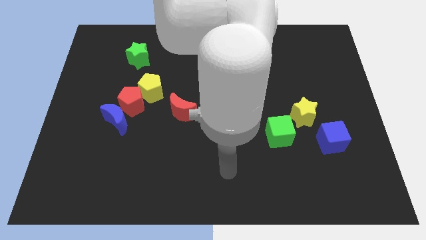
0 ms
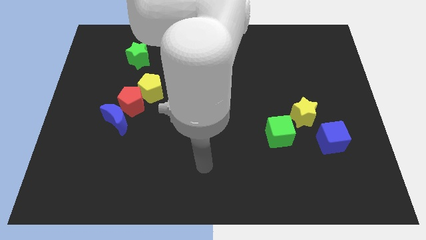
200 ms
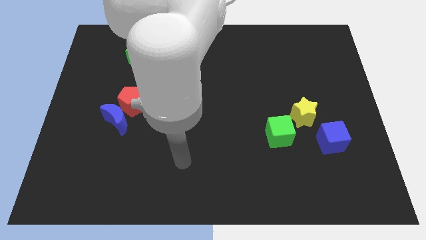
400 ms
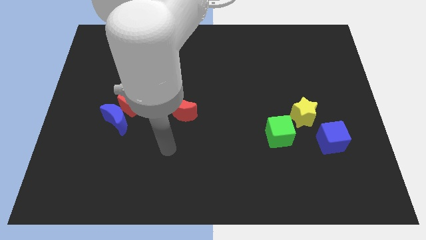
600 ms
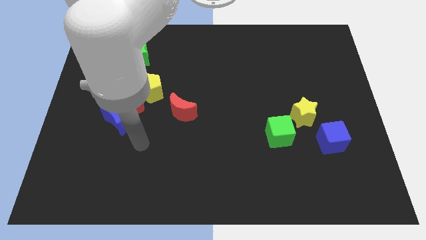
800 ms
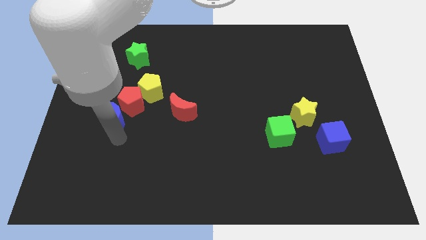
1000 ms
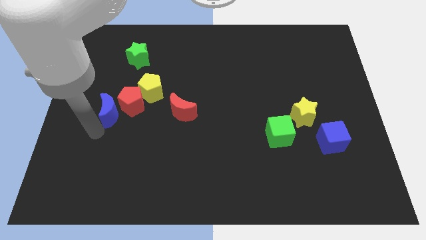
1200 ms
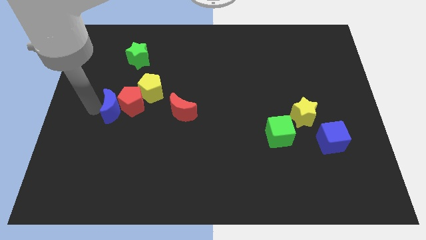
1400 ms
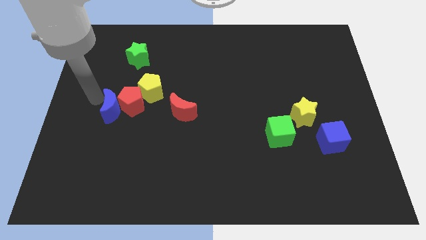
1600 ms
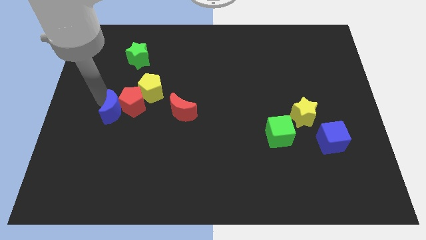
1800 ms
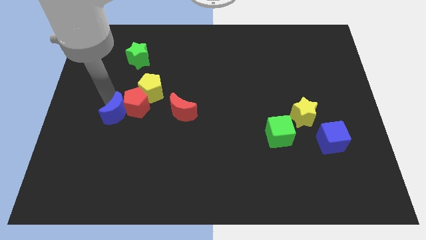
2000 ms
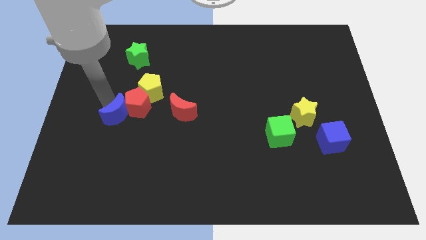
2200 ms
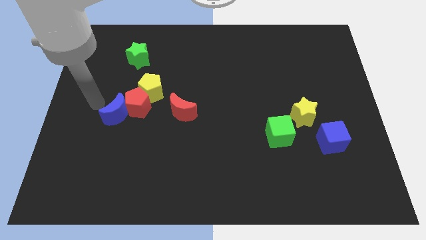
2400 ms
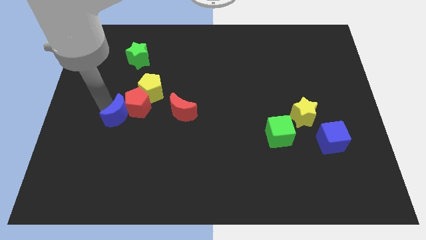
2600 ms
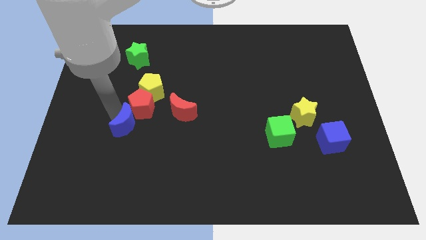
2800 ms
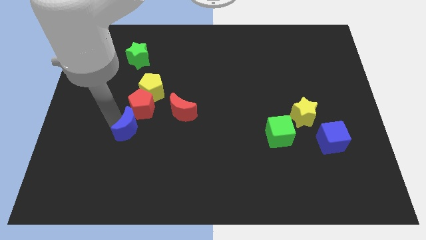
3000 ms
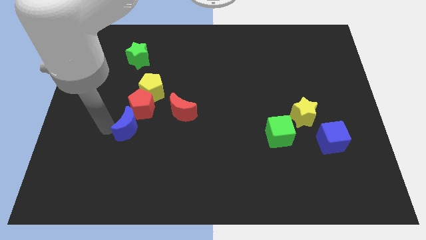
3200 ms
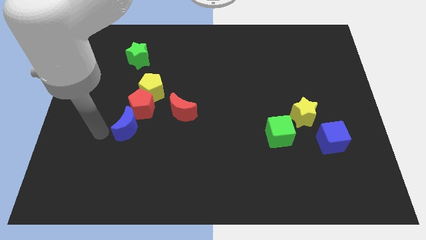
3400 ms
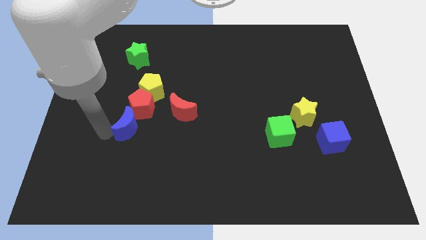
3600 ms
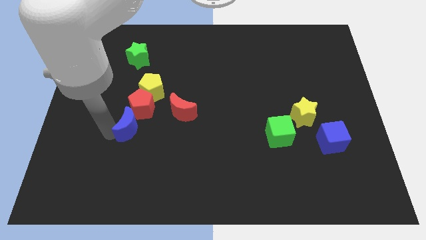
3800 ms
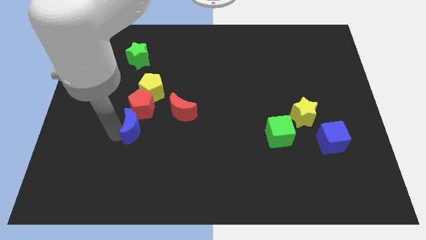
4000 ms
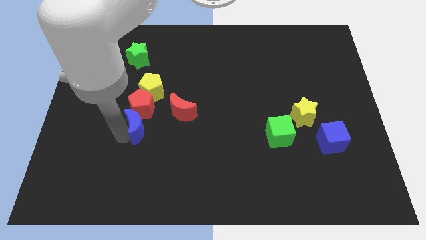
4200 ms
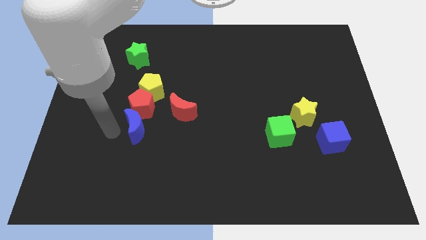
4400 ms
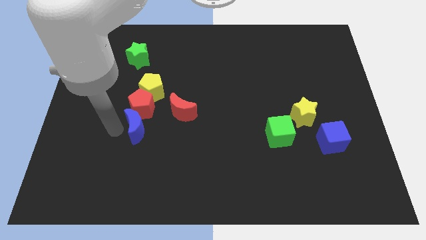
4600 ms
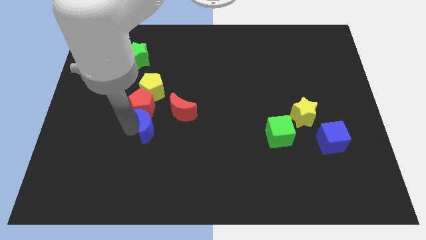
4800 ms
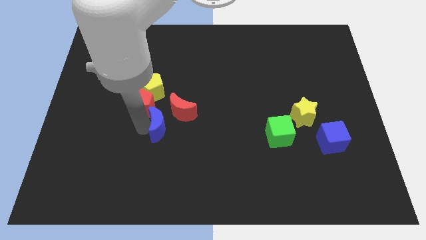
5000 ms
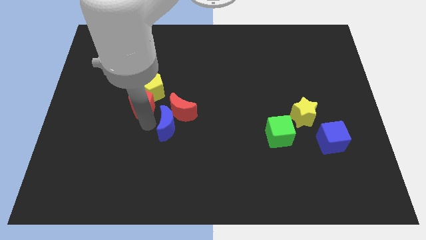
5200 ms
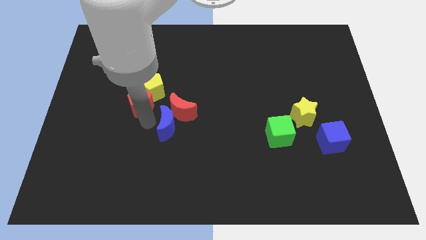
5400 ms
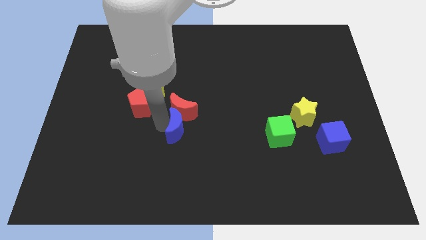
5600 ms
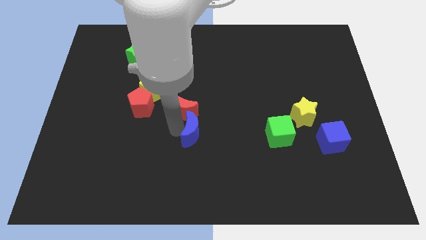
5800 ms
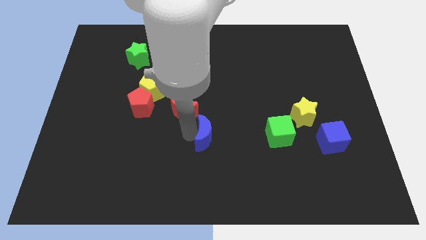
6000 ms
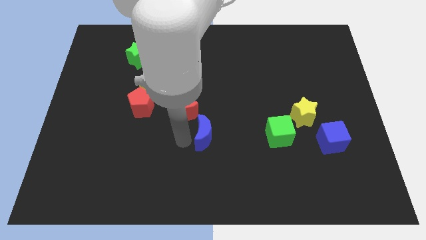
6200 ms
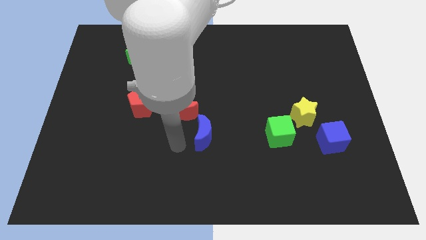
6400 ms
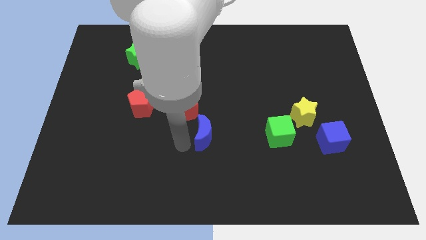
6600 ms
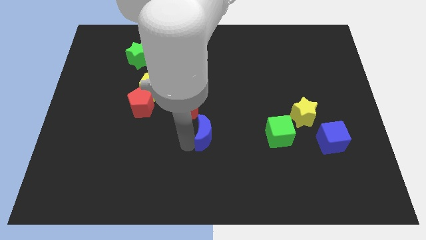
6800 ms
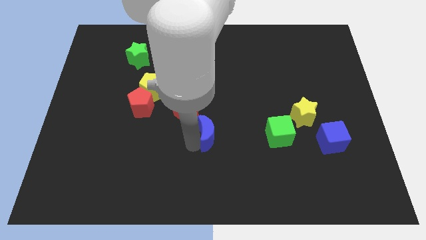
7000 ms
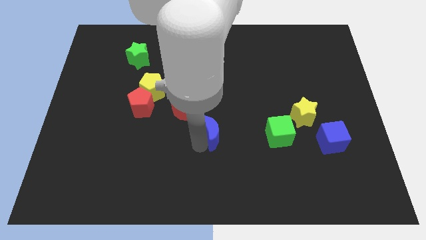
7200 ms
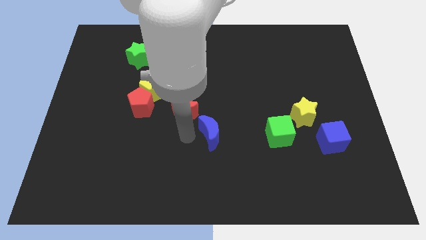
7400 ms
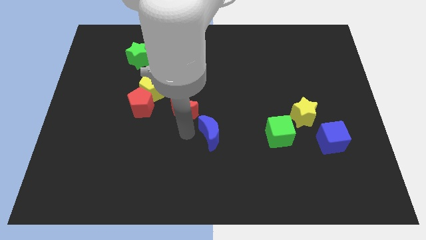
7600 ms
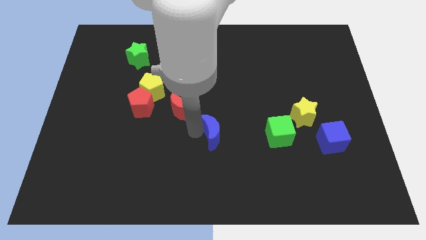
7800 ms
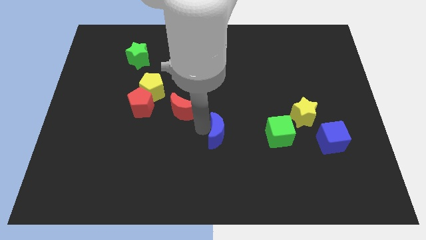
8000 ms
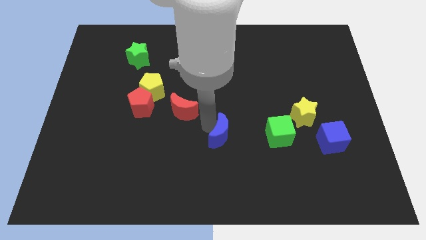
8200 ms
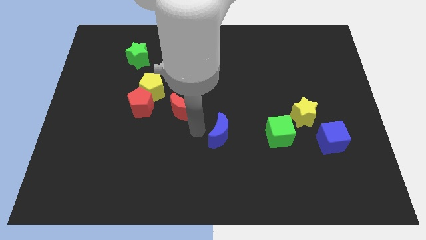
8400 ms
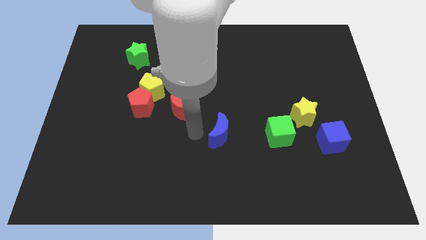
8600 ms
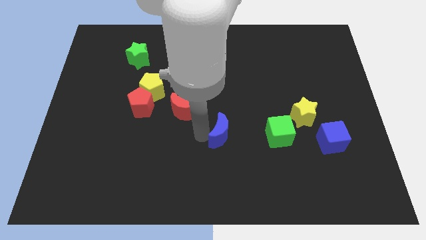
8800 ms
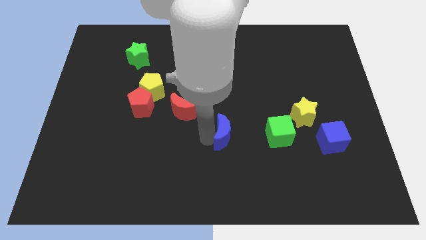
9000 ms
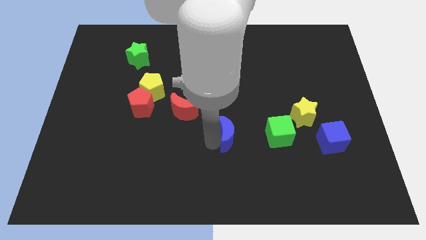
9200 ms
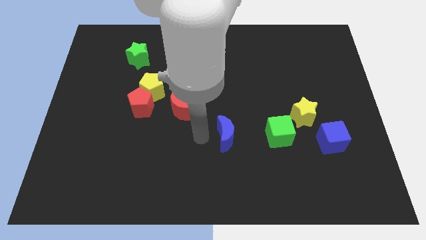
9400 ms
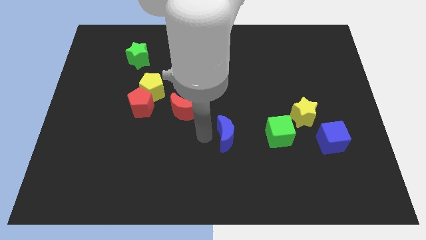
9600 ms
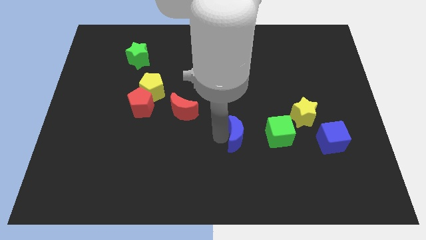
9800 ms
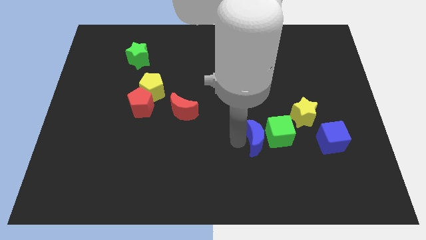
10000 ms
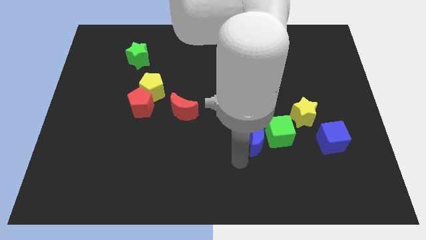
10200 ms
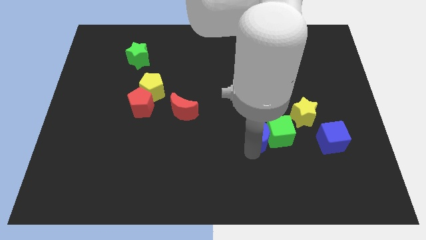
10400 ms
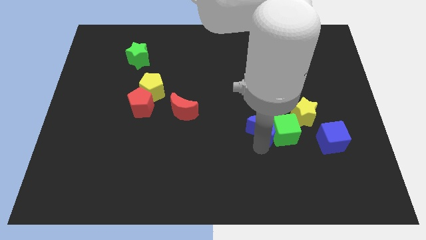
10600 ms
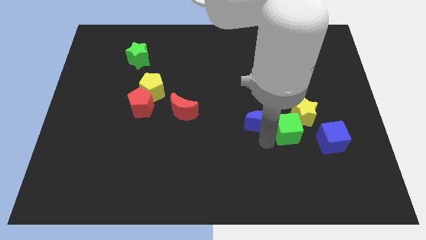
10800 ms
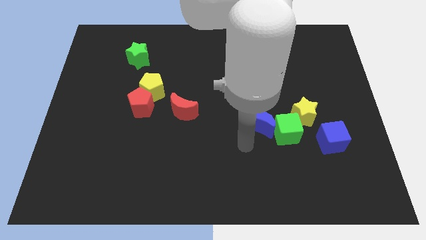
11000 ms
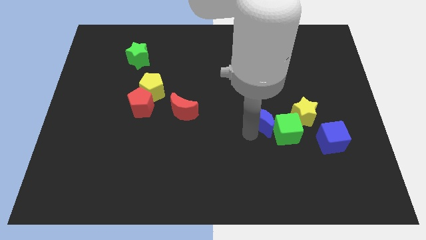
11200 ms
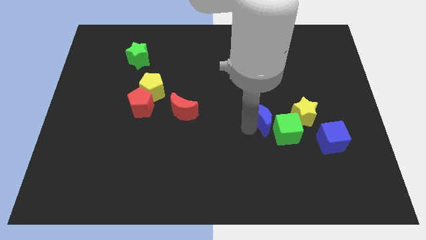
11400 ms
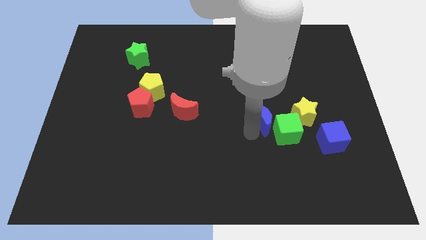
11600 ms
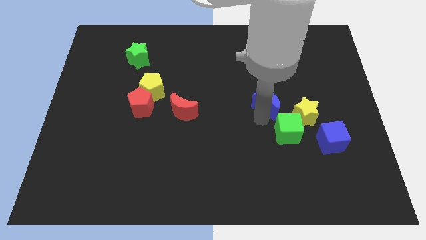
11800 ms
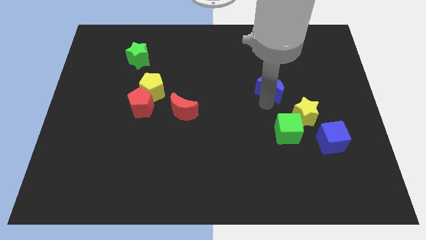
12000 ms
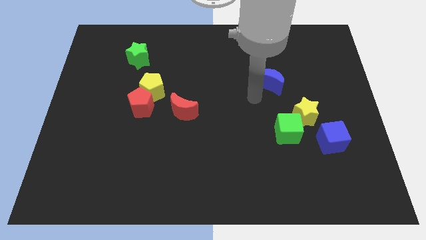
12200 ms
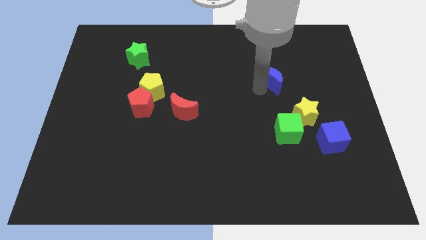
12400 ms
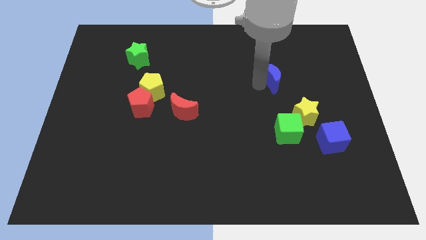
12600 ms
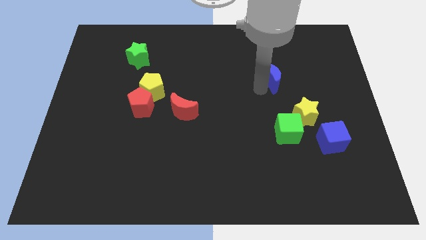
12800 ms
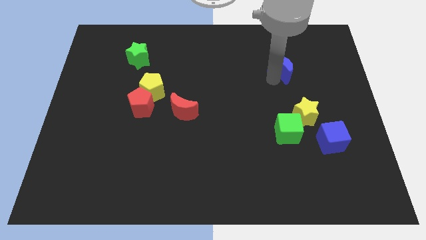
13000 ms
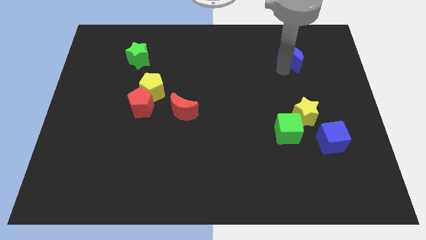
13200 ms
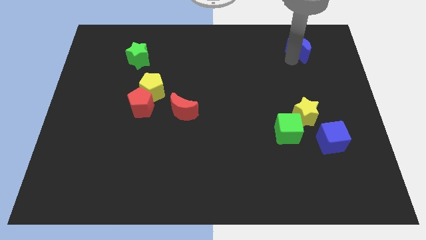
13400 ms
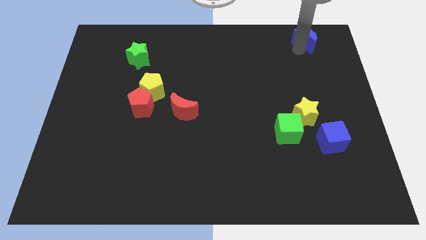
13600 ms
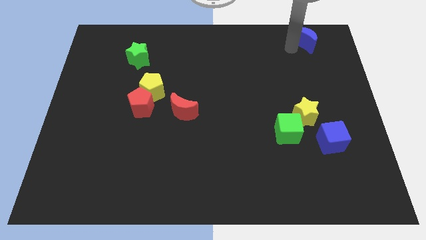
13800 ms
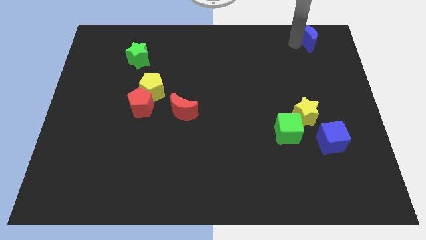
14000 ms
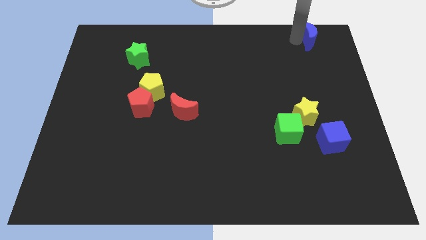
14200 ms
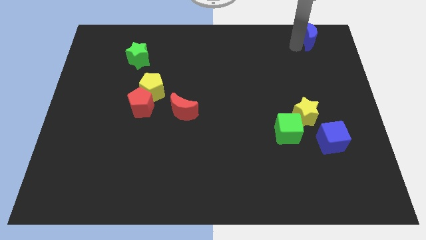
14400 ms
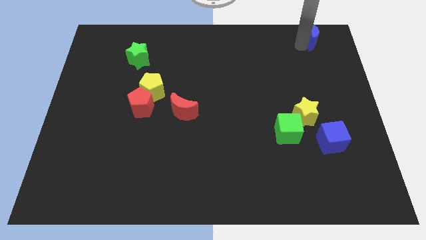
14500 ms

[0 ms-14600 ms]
move the blue moon to the upper right corner
